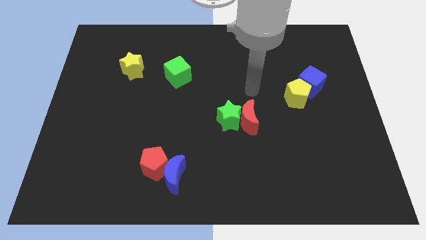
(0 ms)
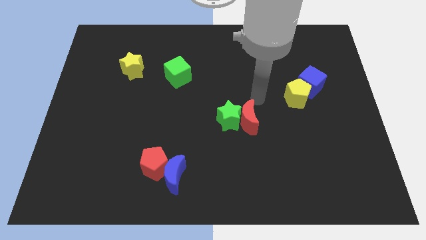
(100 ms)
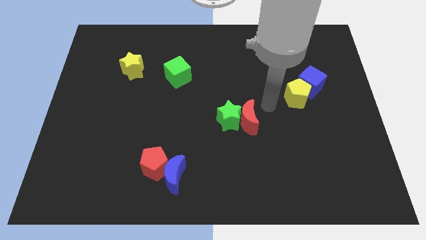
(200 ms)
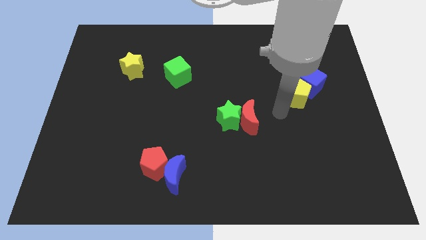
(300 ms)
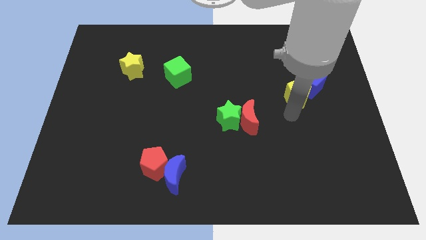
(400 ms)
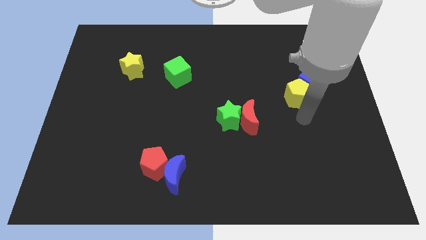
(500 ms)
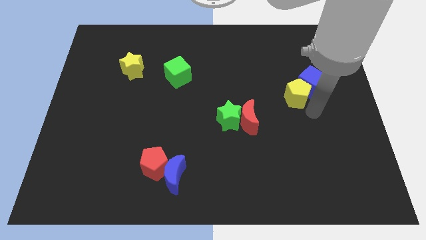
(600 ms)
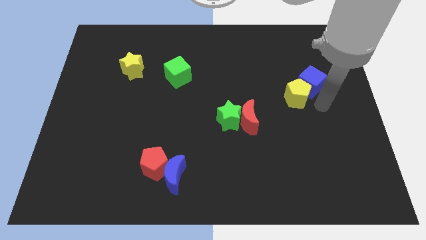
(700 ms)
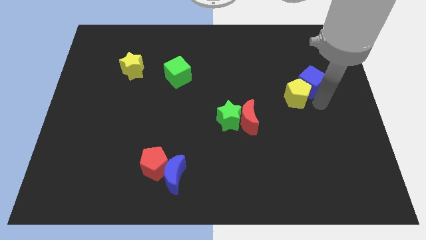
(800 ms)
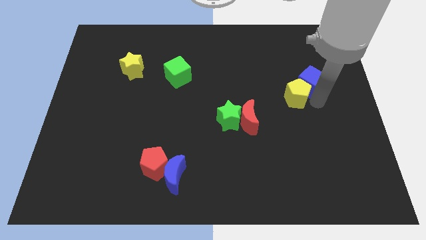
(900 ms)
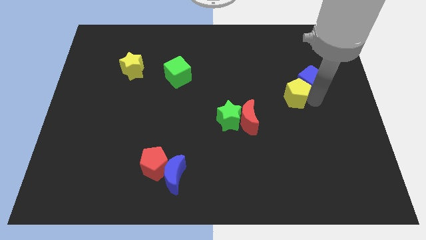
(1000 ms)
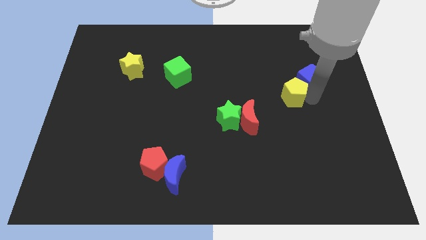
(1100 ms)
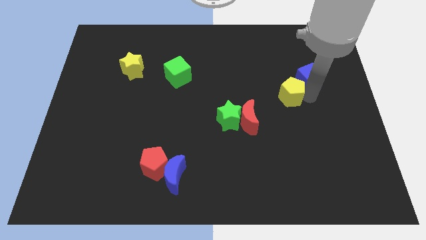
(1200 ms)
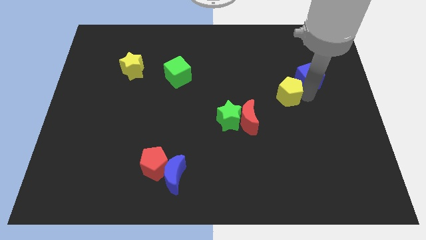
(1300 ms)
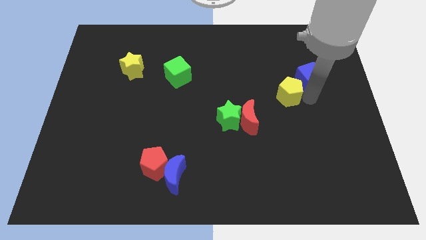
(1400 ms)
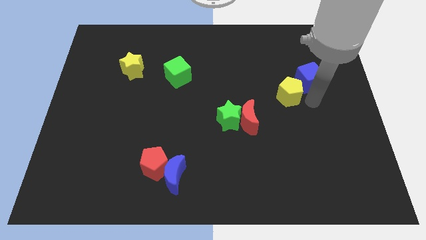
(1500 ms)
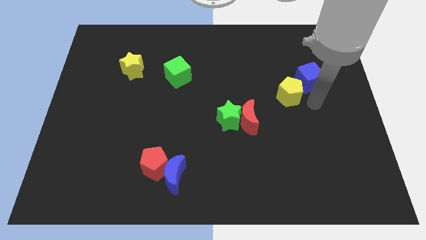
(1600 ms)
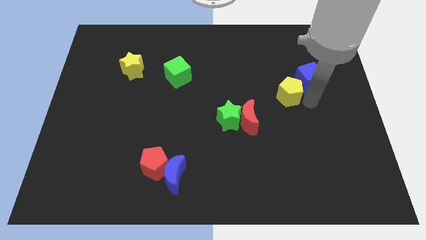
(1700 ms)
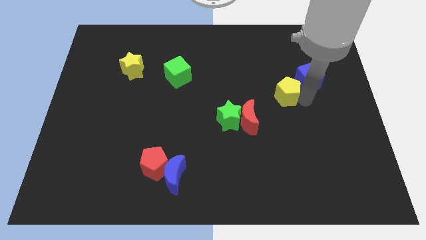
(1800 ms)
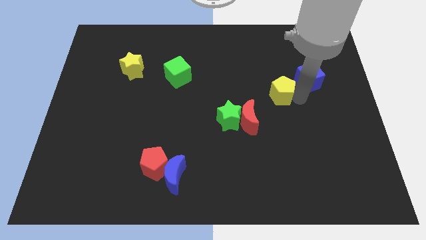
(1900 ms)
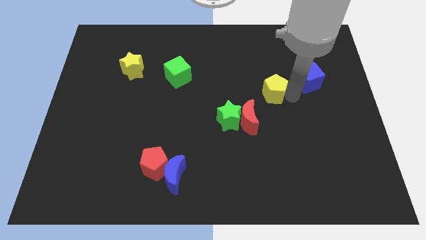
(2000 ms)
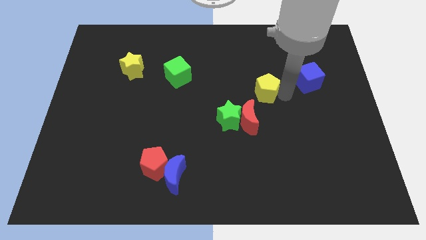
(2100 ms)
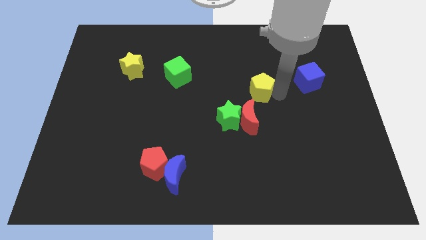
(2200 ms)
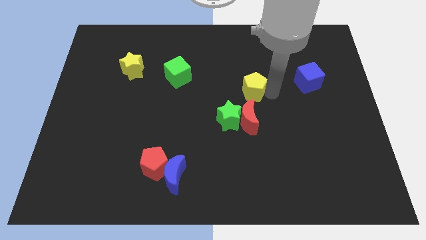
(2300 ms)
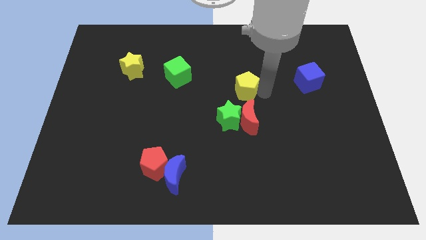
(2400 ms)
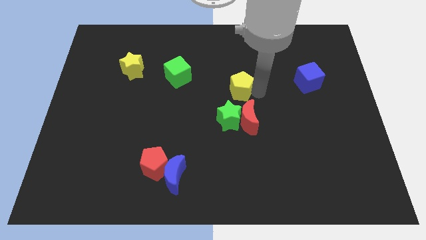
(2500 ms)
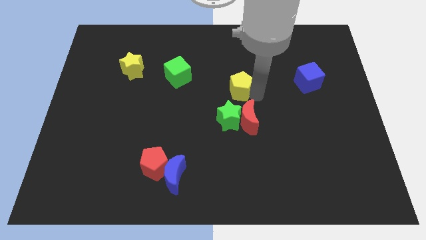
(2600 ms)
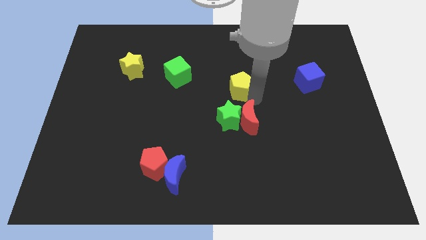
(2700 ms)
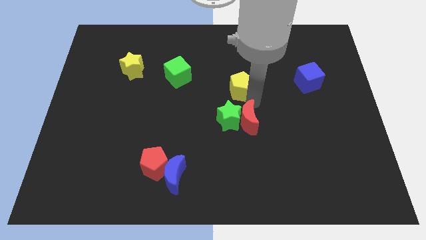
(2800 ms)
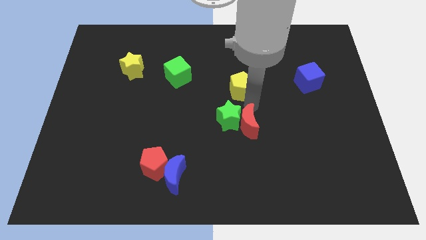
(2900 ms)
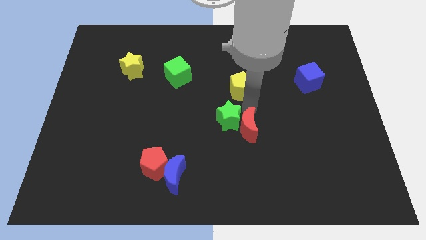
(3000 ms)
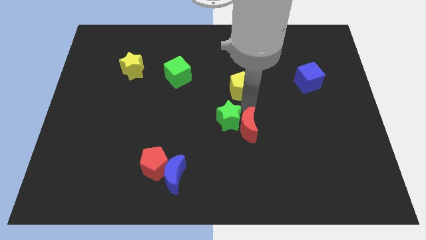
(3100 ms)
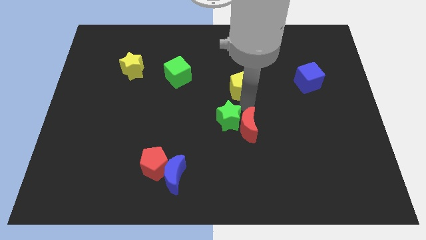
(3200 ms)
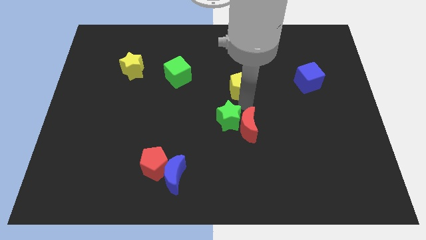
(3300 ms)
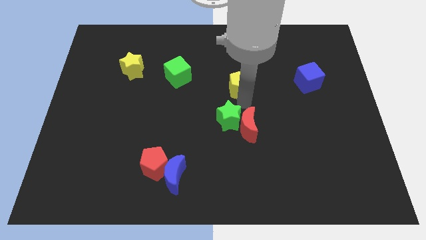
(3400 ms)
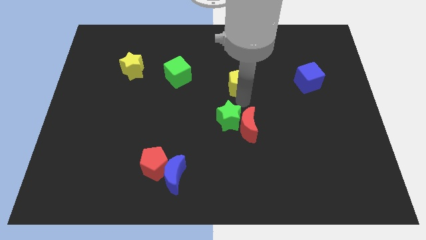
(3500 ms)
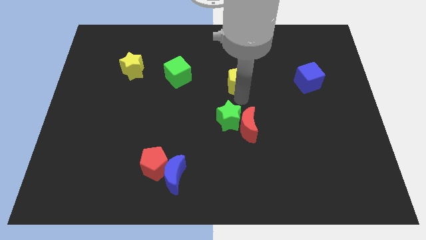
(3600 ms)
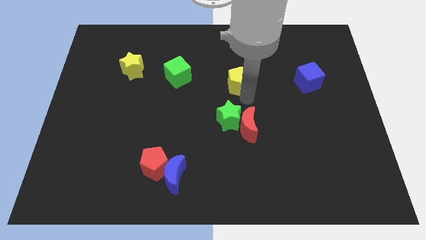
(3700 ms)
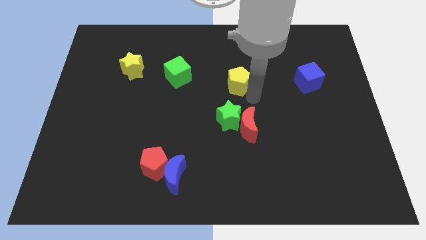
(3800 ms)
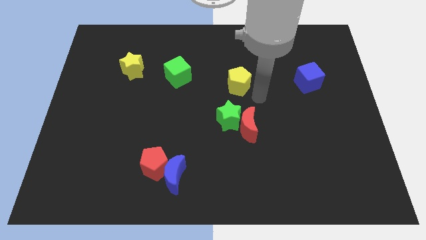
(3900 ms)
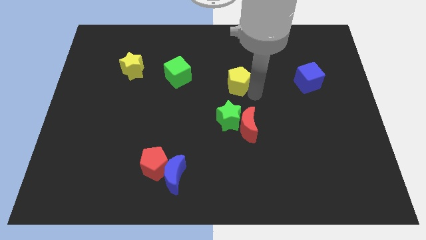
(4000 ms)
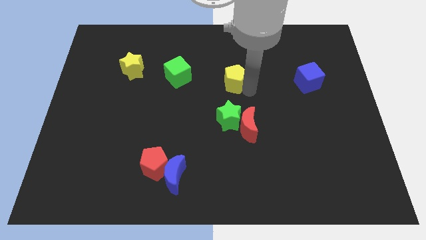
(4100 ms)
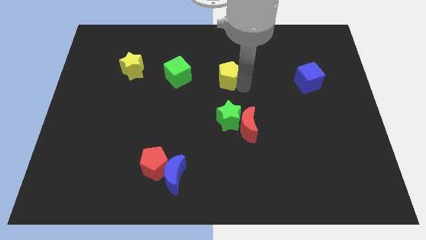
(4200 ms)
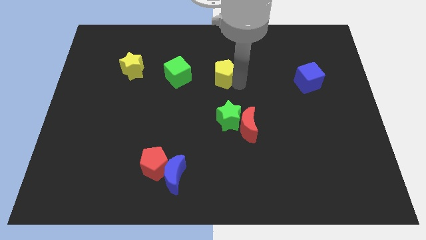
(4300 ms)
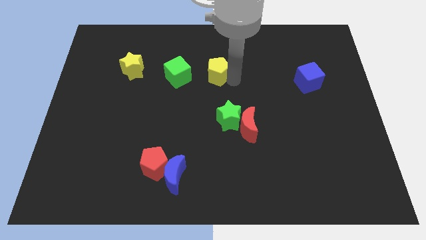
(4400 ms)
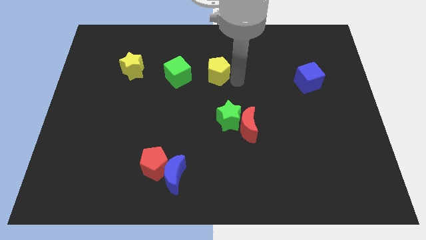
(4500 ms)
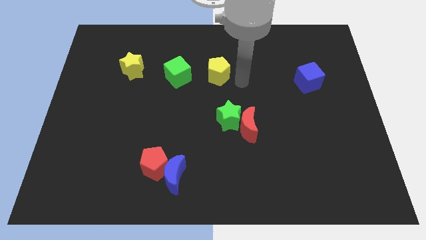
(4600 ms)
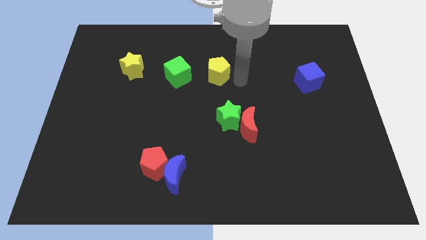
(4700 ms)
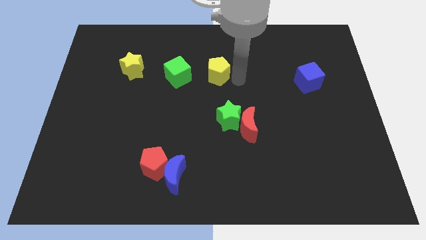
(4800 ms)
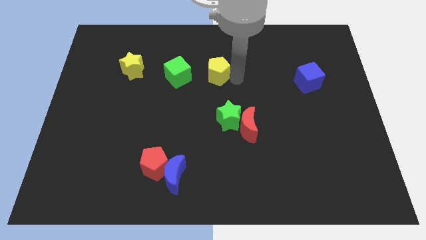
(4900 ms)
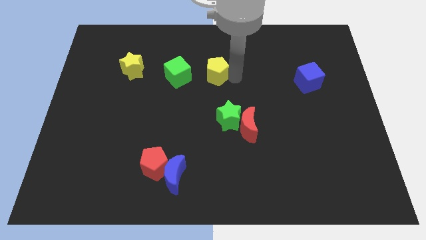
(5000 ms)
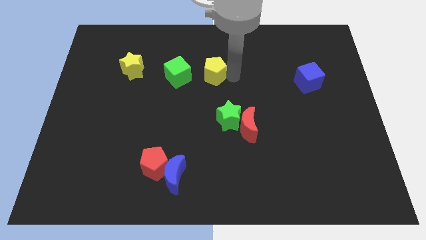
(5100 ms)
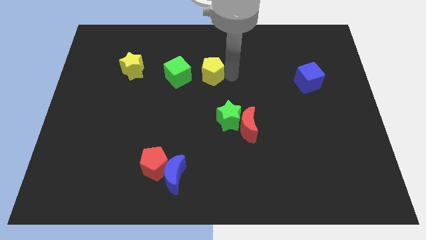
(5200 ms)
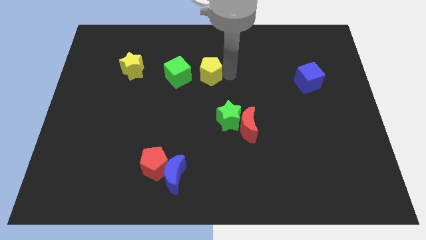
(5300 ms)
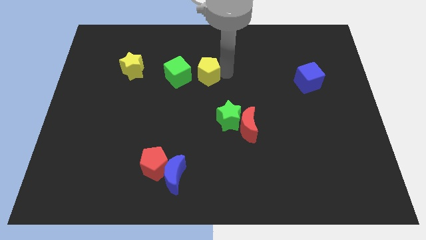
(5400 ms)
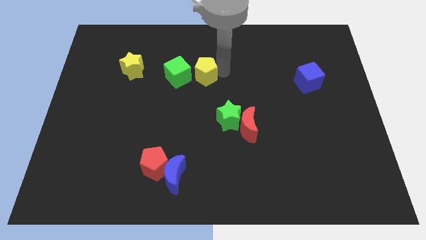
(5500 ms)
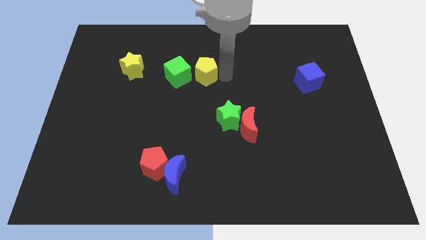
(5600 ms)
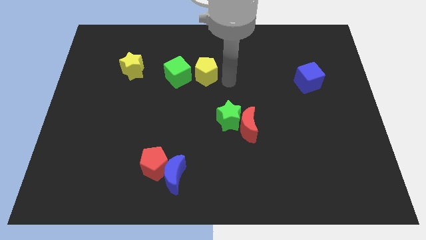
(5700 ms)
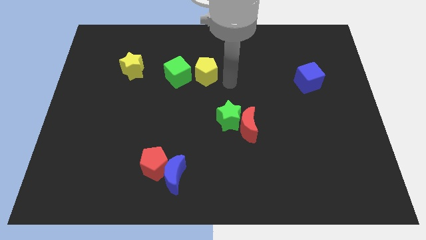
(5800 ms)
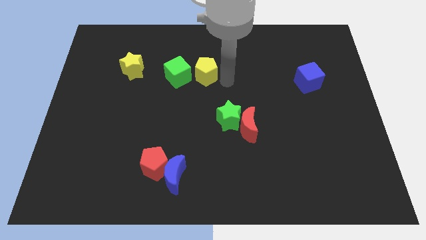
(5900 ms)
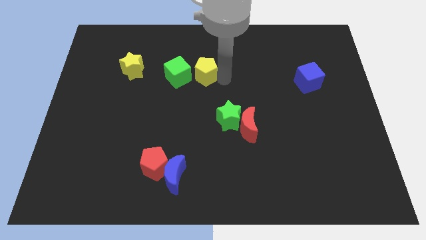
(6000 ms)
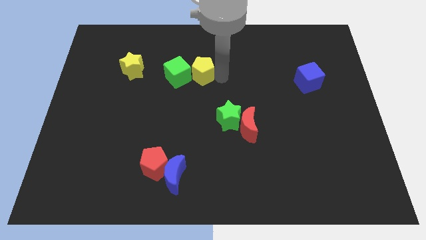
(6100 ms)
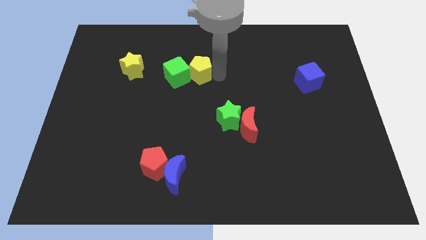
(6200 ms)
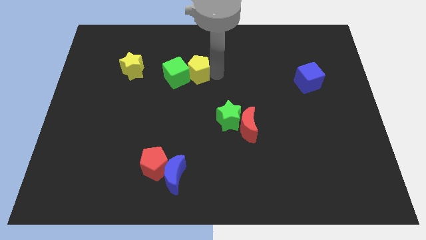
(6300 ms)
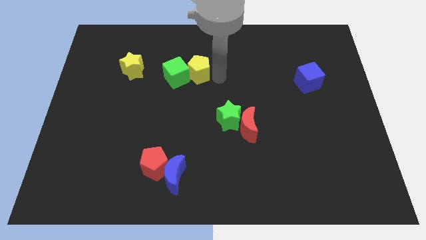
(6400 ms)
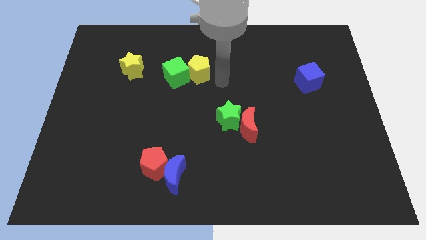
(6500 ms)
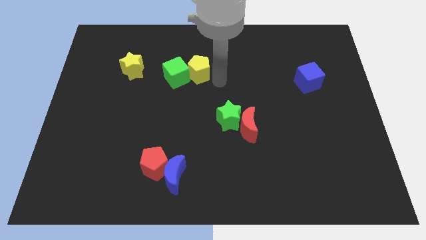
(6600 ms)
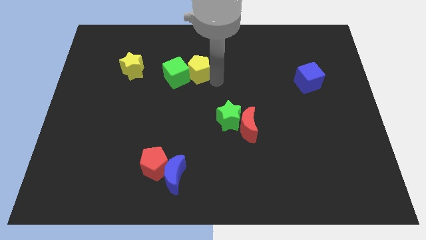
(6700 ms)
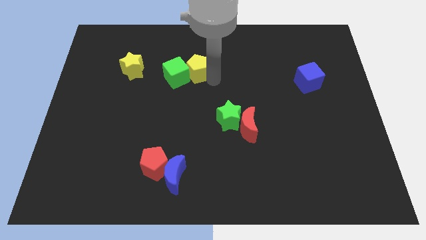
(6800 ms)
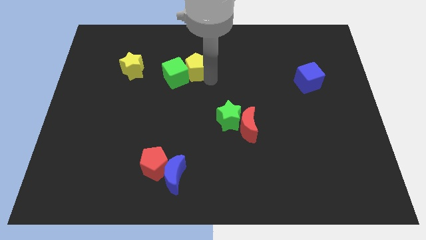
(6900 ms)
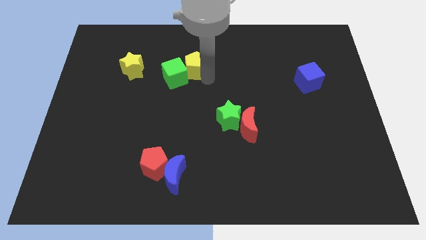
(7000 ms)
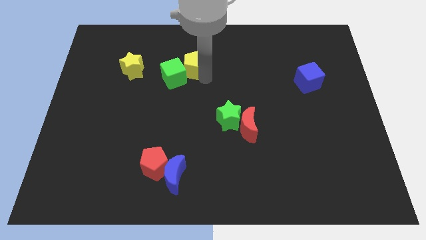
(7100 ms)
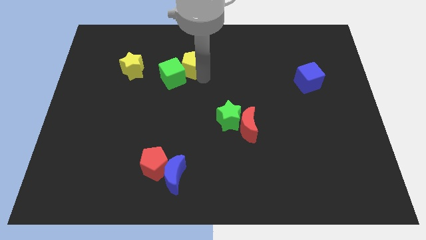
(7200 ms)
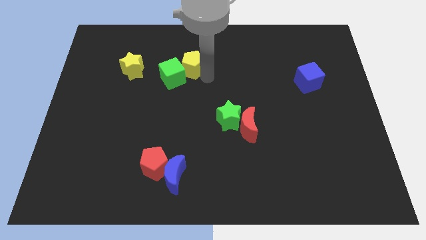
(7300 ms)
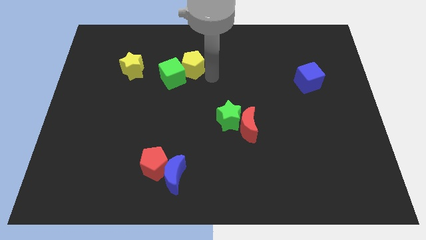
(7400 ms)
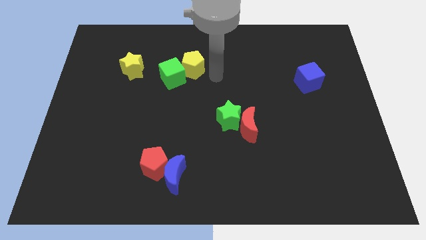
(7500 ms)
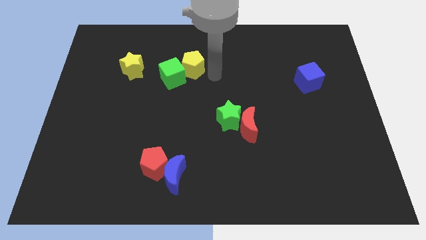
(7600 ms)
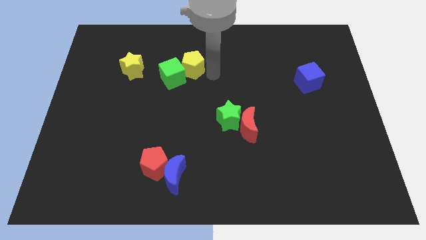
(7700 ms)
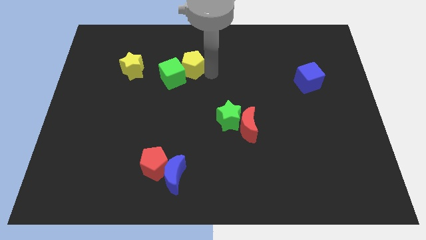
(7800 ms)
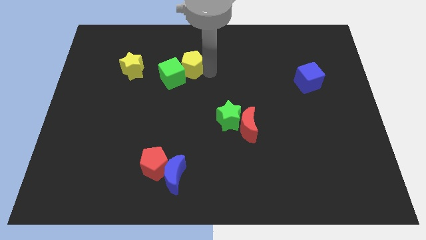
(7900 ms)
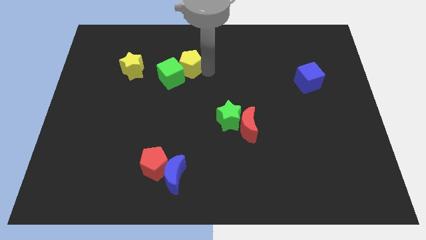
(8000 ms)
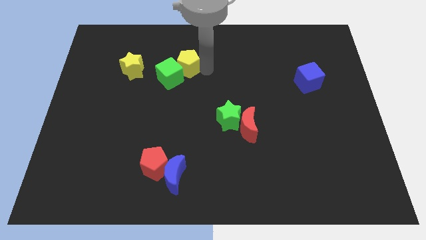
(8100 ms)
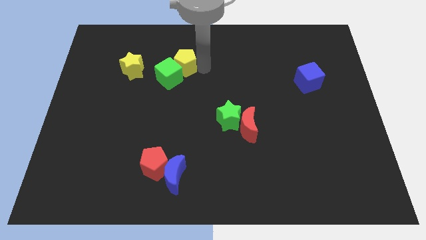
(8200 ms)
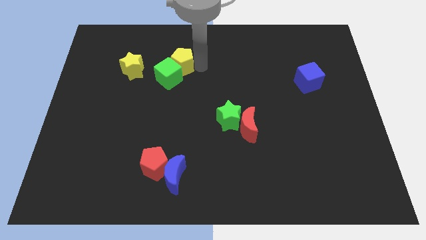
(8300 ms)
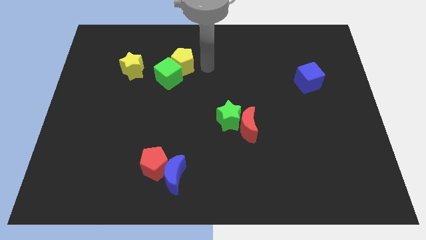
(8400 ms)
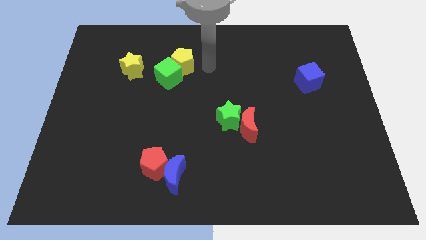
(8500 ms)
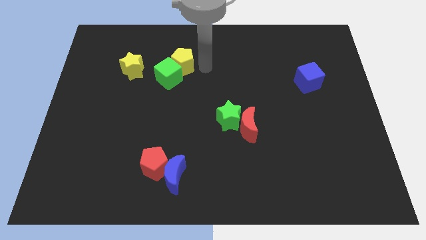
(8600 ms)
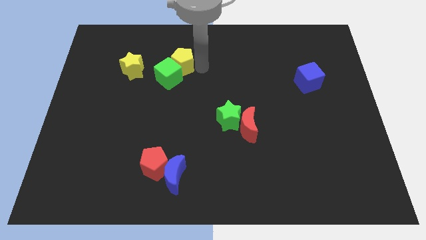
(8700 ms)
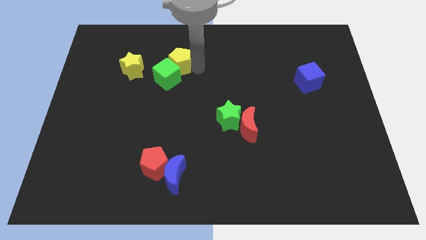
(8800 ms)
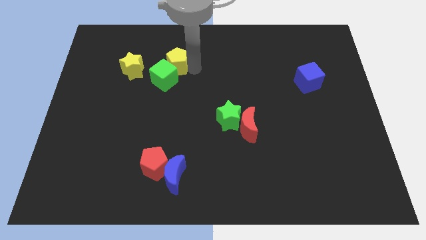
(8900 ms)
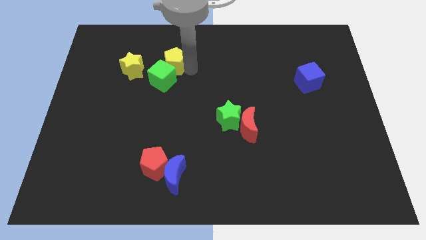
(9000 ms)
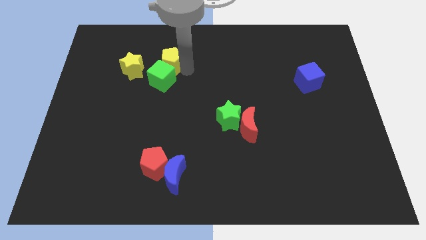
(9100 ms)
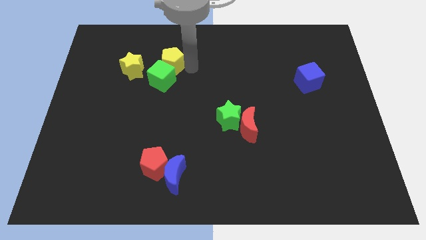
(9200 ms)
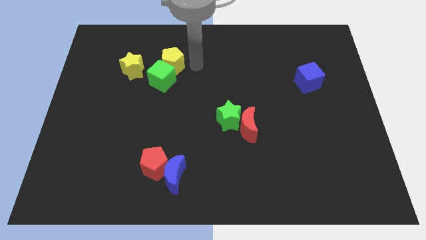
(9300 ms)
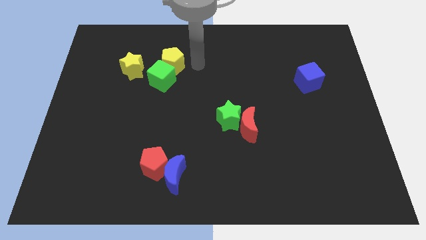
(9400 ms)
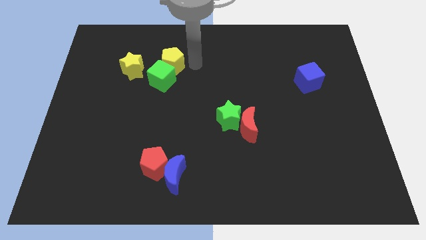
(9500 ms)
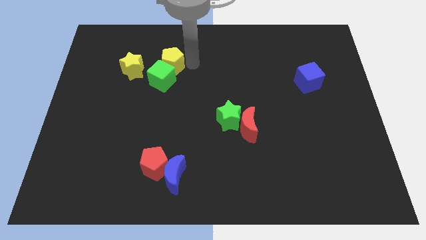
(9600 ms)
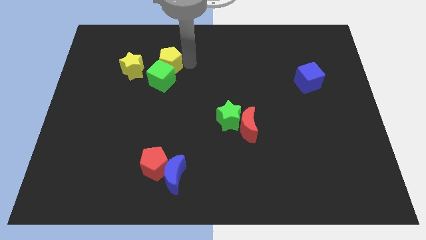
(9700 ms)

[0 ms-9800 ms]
move the yellow pentagon to the top left side of the green cube
